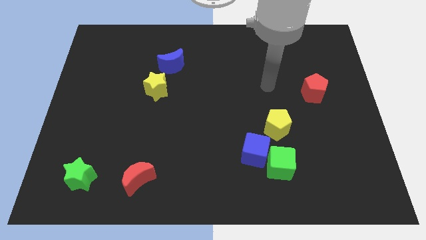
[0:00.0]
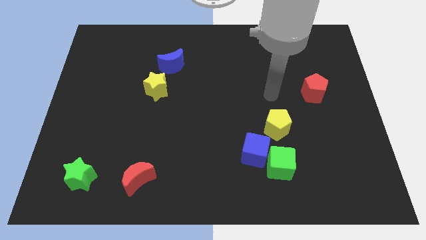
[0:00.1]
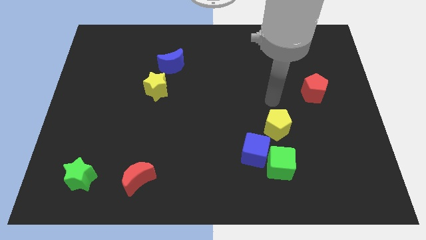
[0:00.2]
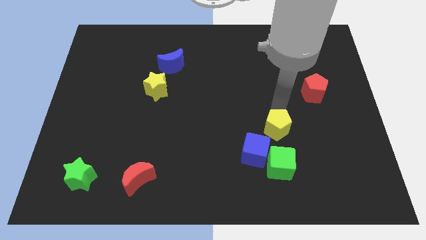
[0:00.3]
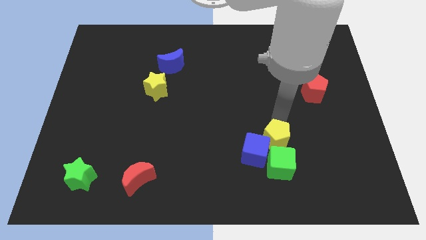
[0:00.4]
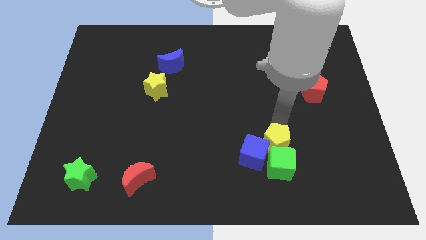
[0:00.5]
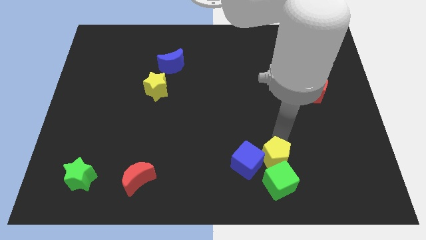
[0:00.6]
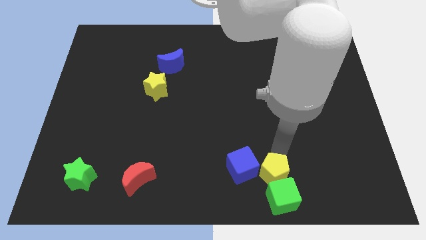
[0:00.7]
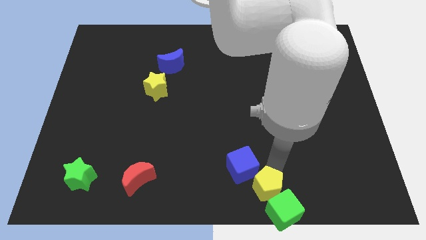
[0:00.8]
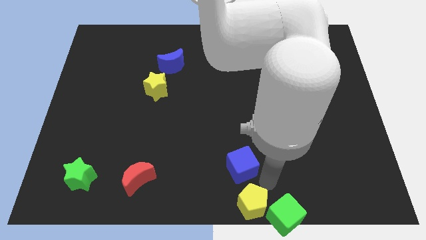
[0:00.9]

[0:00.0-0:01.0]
pull the blue cube apart from the green cube and yellow pentagon

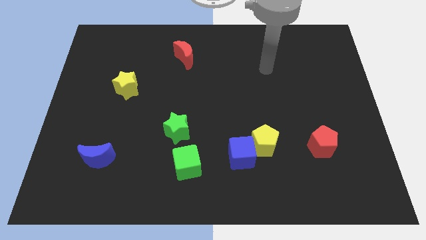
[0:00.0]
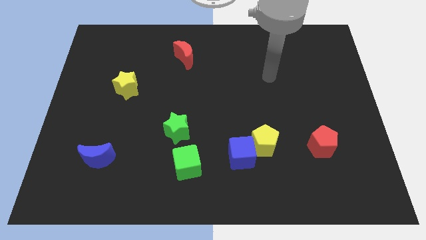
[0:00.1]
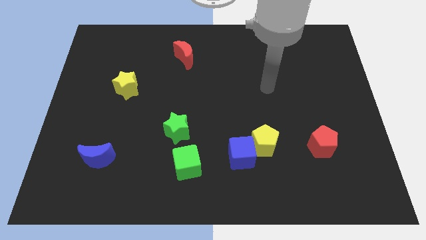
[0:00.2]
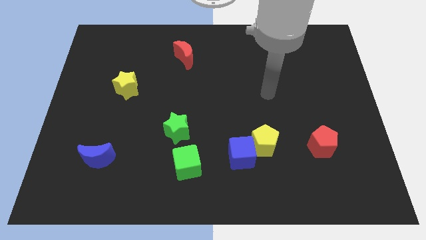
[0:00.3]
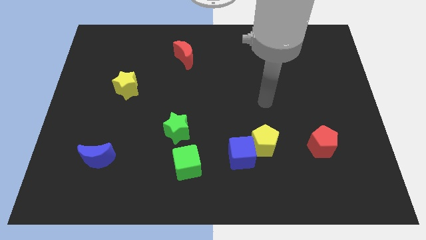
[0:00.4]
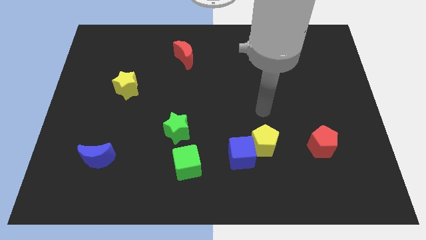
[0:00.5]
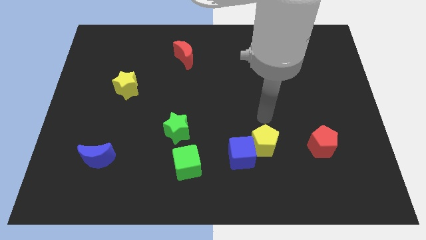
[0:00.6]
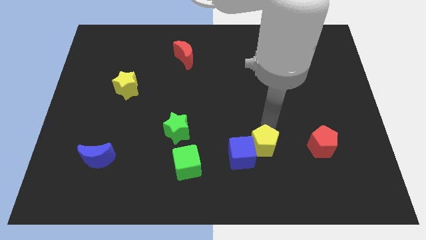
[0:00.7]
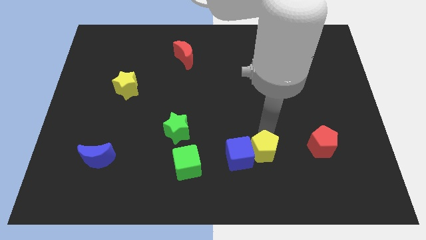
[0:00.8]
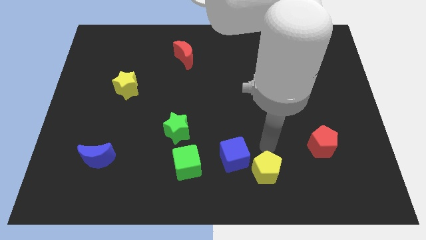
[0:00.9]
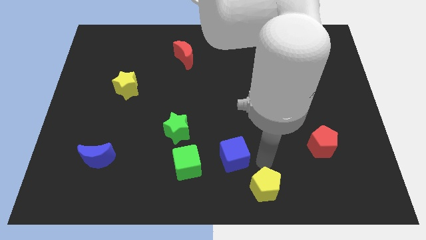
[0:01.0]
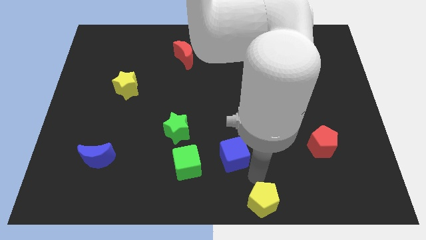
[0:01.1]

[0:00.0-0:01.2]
move the blue cube away from the yellow pentagon

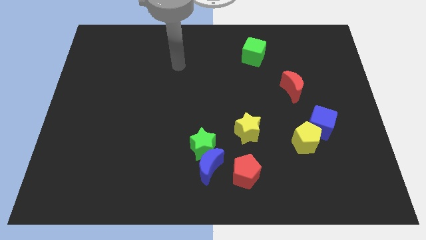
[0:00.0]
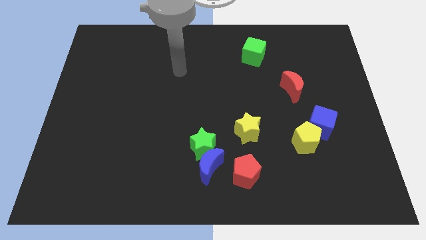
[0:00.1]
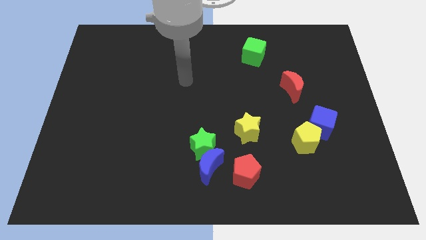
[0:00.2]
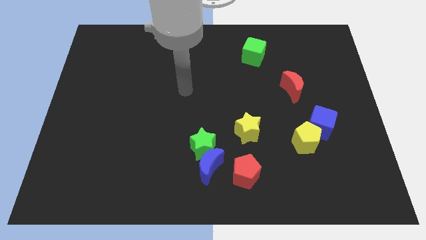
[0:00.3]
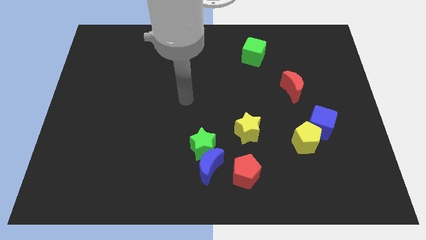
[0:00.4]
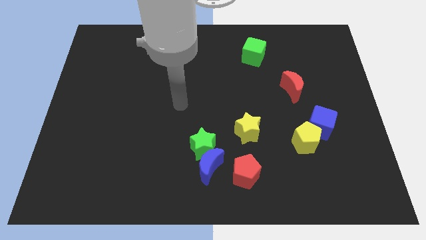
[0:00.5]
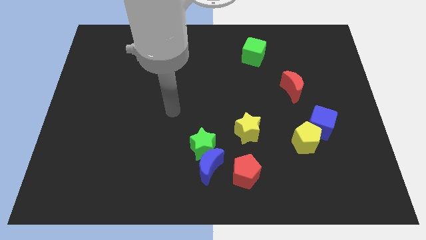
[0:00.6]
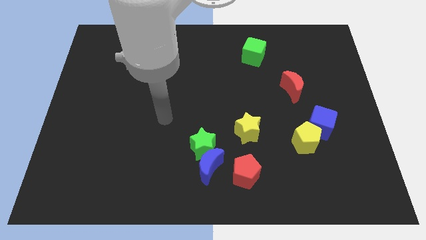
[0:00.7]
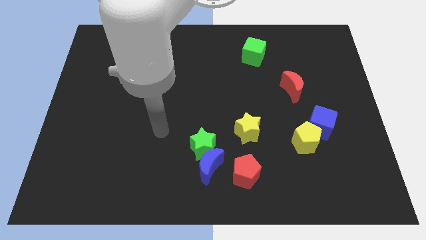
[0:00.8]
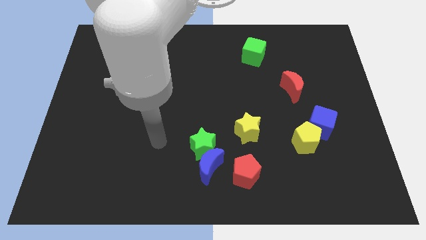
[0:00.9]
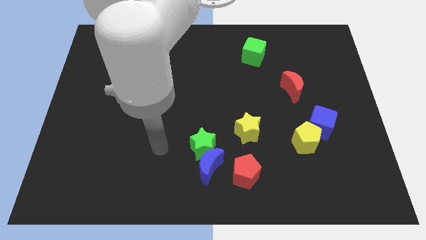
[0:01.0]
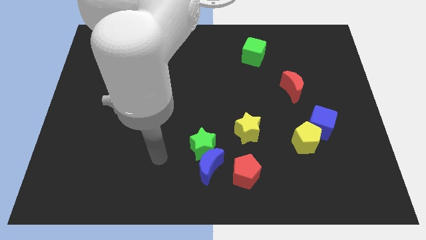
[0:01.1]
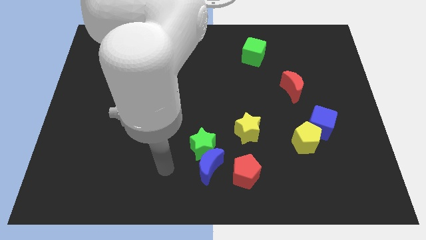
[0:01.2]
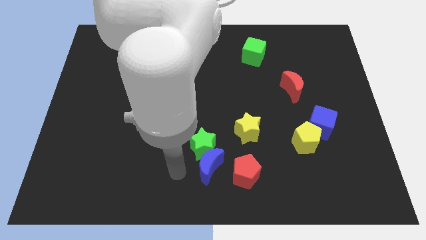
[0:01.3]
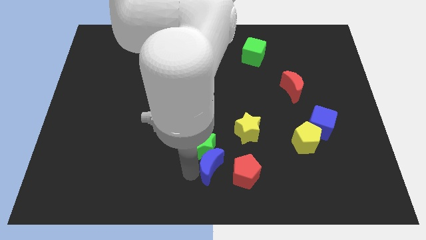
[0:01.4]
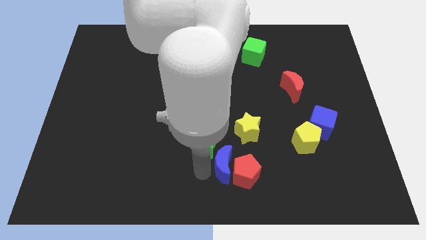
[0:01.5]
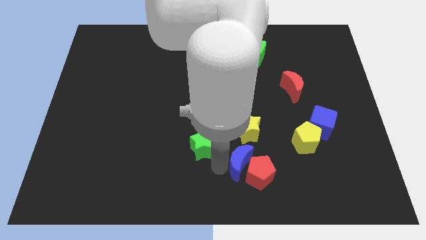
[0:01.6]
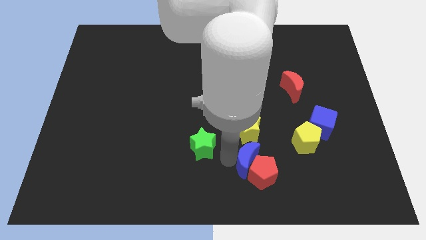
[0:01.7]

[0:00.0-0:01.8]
pull the green star apart from the blue moon

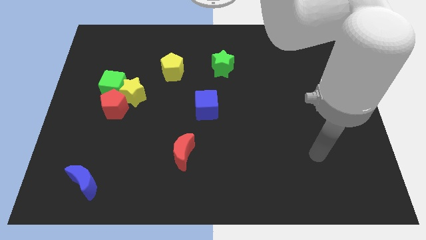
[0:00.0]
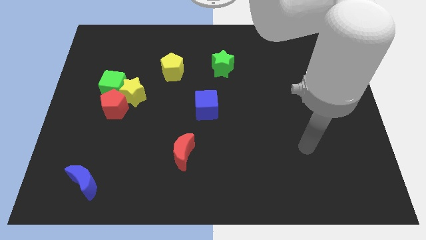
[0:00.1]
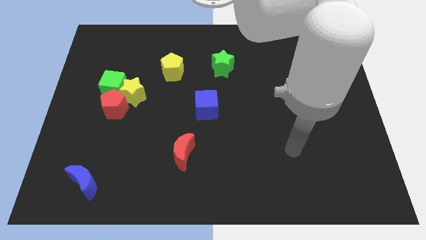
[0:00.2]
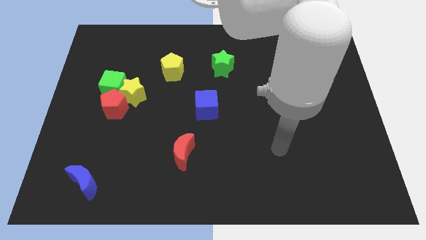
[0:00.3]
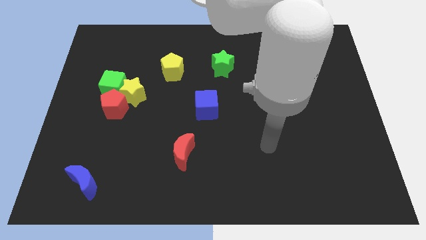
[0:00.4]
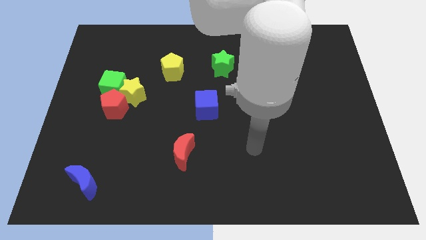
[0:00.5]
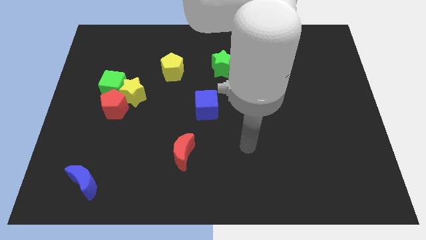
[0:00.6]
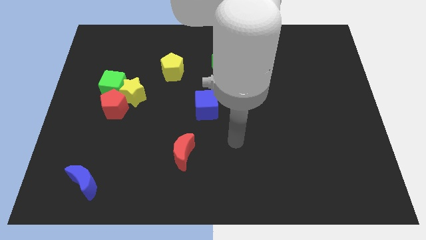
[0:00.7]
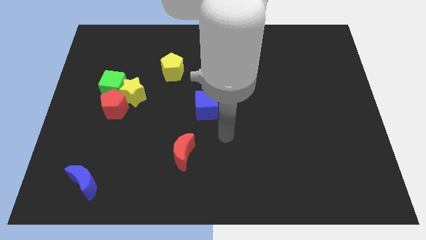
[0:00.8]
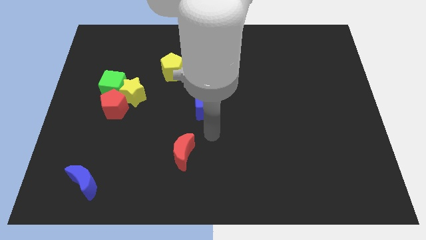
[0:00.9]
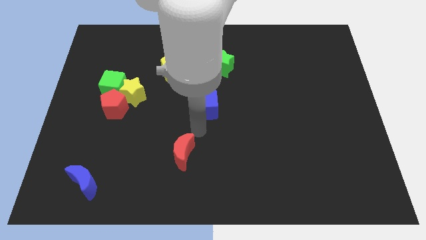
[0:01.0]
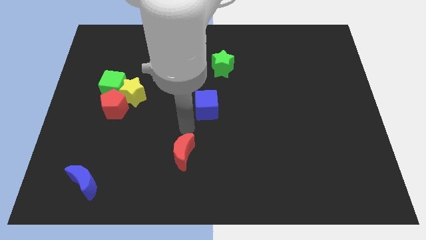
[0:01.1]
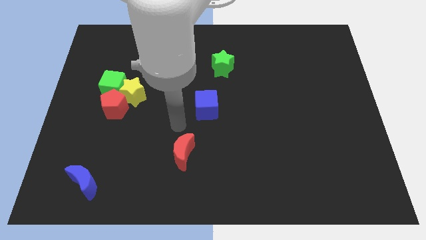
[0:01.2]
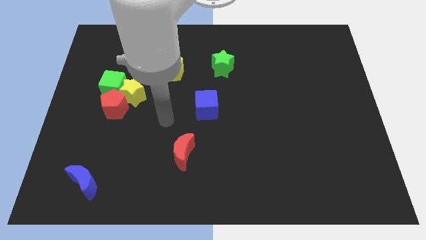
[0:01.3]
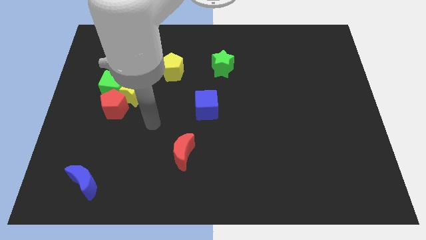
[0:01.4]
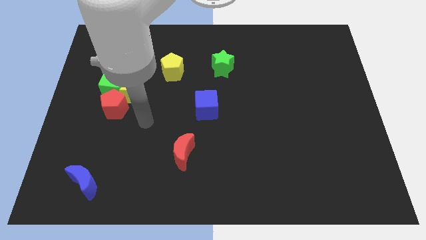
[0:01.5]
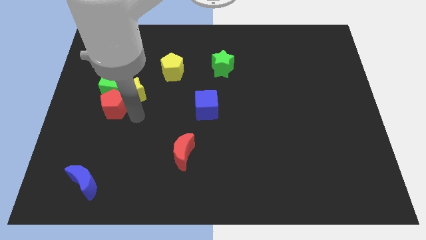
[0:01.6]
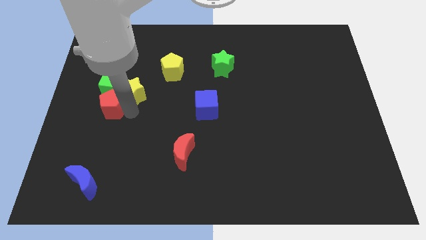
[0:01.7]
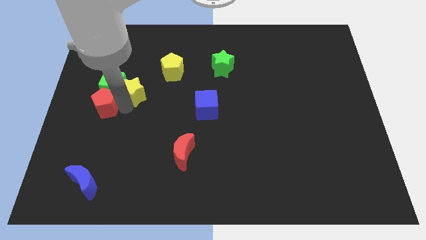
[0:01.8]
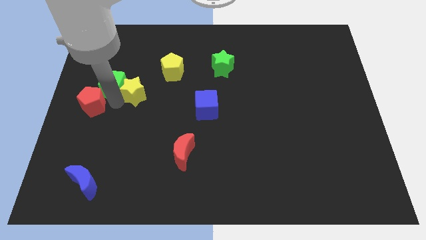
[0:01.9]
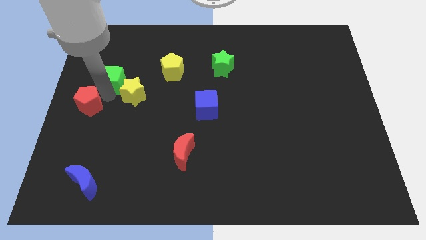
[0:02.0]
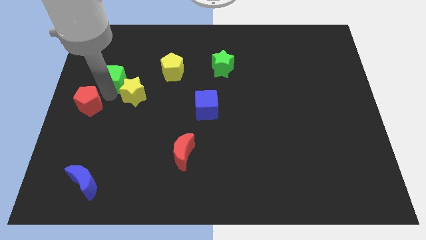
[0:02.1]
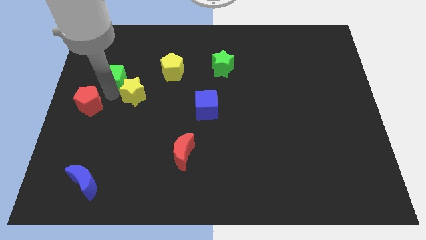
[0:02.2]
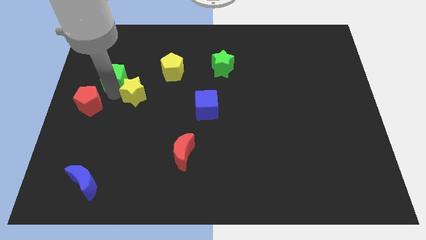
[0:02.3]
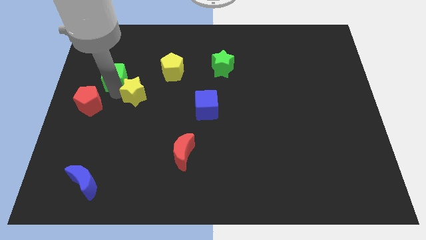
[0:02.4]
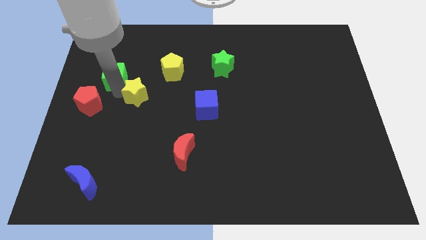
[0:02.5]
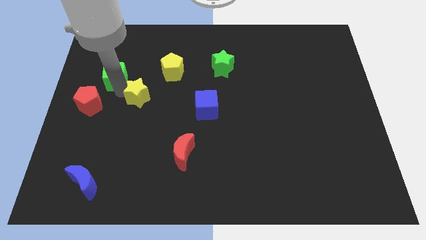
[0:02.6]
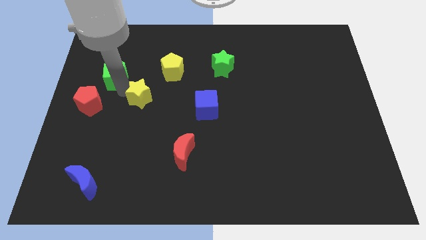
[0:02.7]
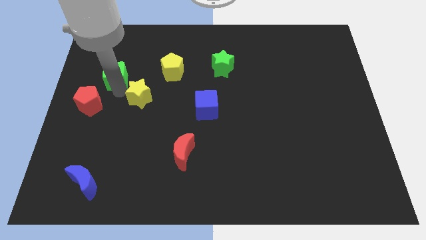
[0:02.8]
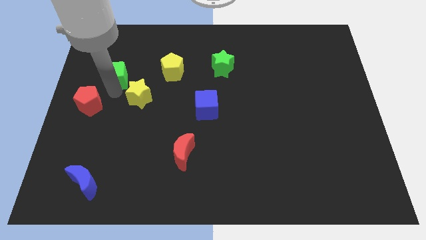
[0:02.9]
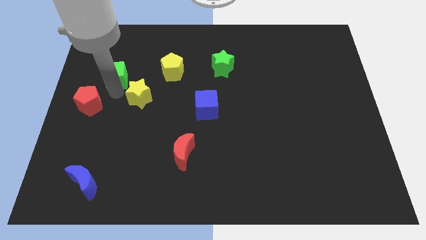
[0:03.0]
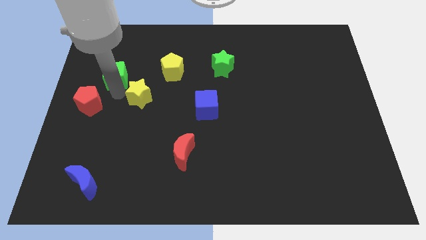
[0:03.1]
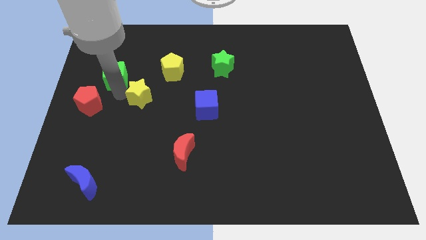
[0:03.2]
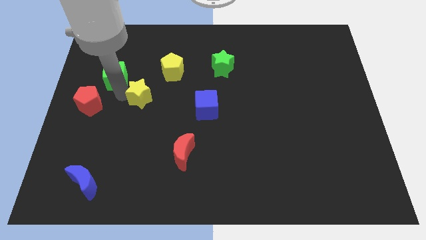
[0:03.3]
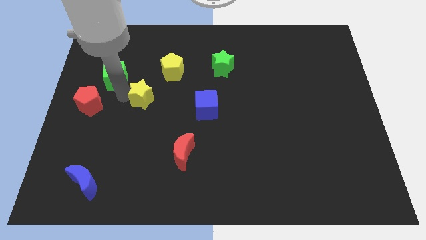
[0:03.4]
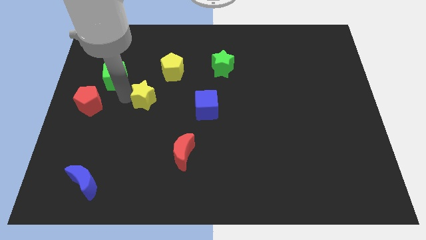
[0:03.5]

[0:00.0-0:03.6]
separate the yellow star from the green cube and red pentagon

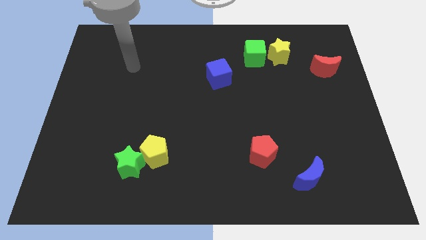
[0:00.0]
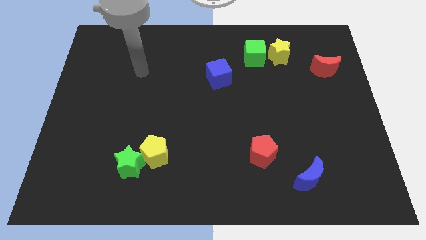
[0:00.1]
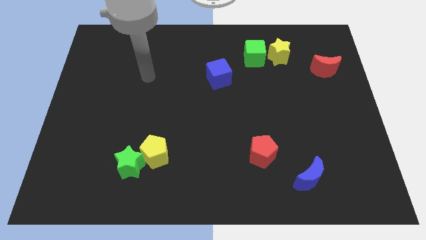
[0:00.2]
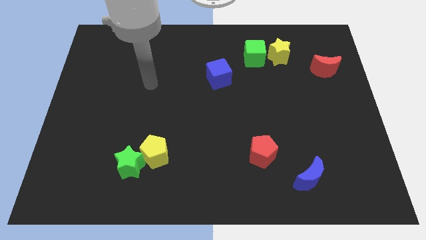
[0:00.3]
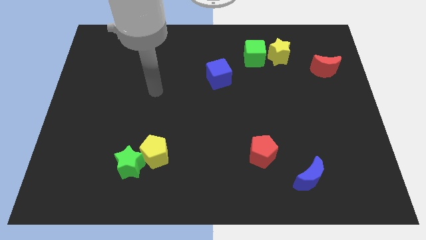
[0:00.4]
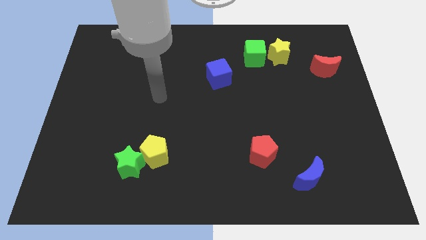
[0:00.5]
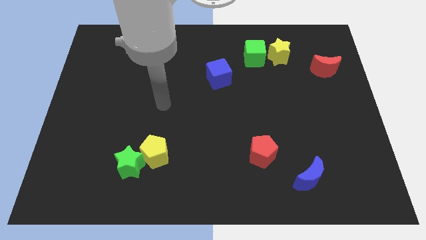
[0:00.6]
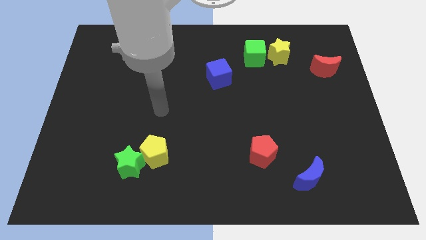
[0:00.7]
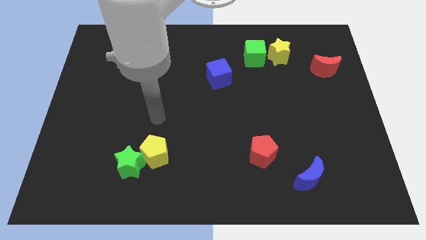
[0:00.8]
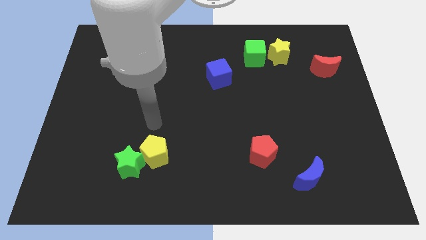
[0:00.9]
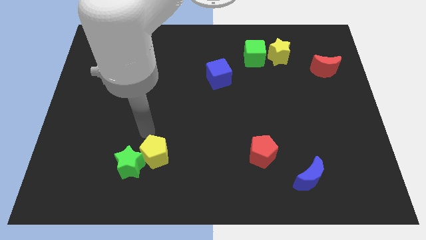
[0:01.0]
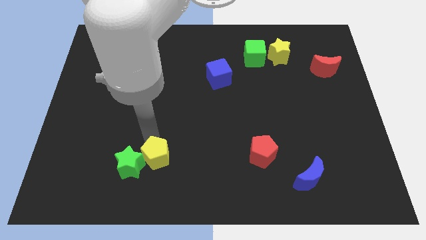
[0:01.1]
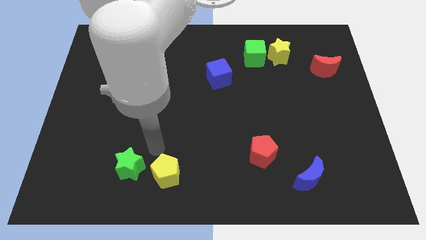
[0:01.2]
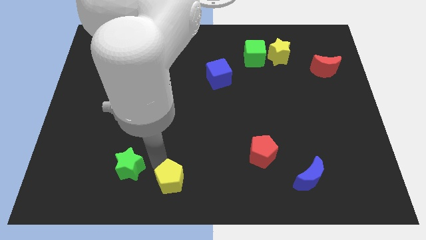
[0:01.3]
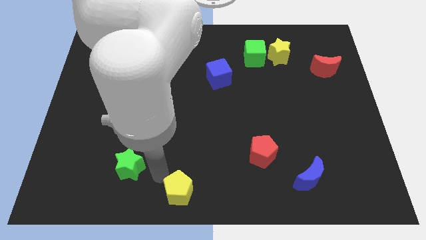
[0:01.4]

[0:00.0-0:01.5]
separate the green star from the yellow pentagon

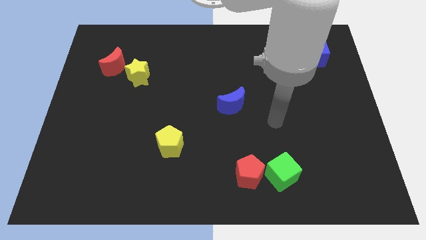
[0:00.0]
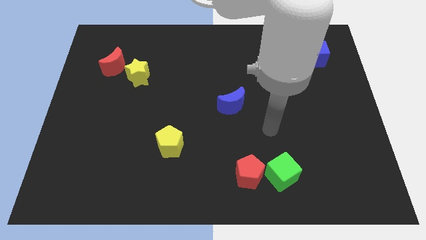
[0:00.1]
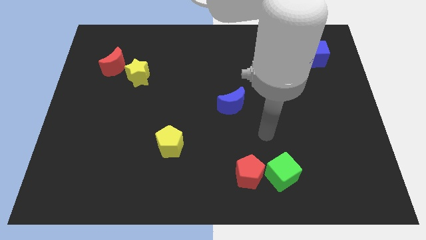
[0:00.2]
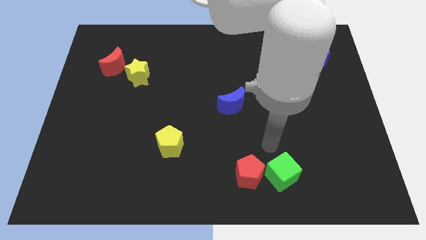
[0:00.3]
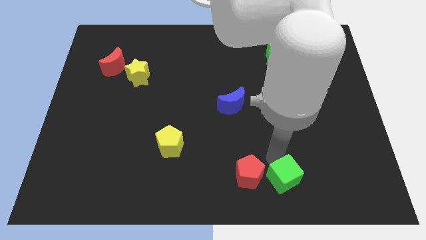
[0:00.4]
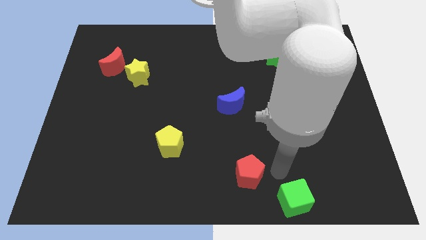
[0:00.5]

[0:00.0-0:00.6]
move the red pentagon away from the green cube
